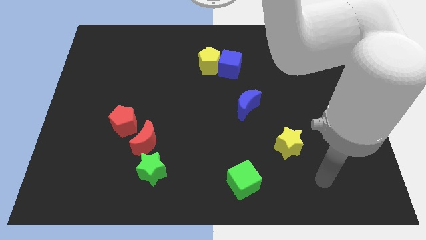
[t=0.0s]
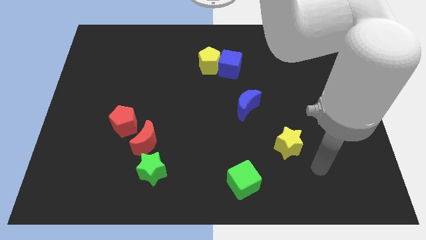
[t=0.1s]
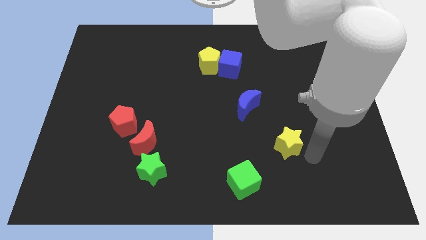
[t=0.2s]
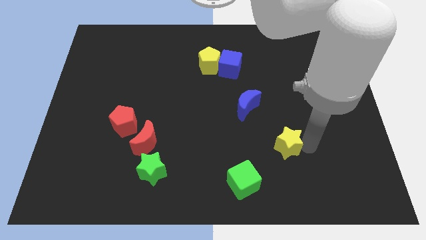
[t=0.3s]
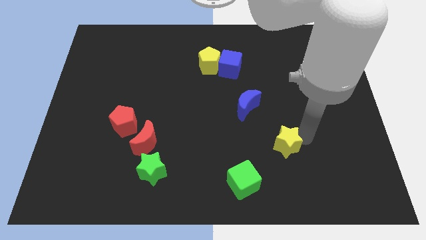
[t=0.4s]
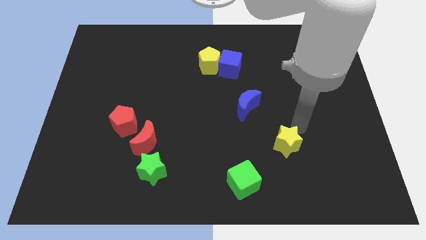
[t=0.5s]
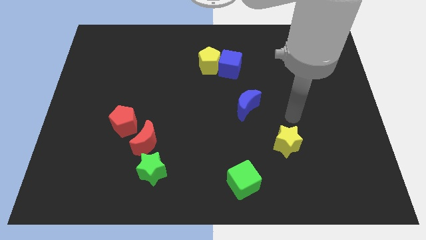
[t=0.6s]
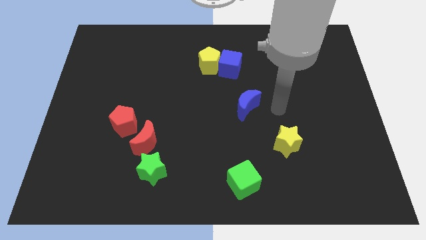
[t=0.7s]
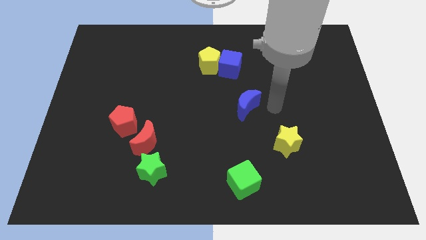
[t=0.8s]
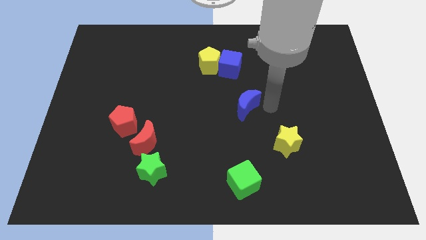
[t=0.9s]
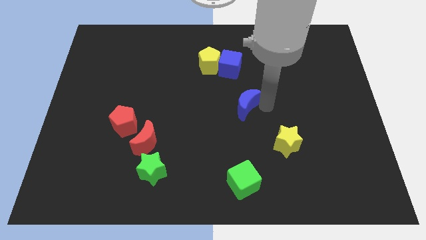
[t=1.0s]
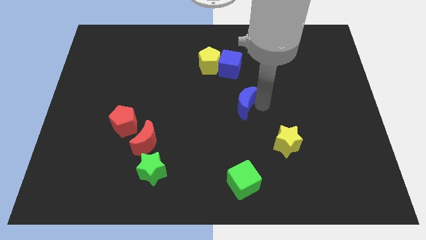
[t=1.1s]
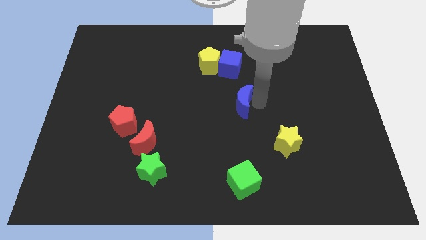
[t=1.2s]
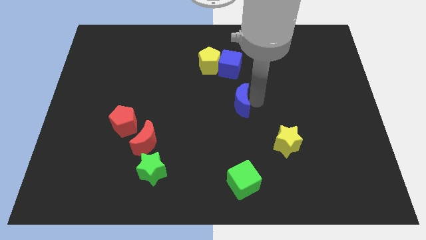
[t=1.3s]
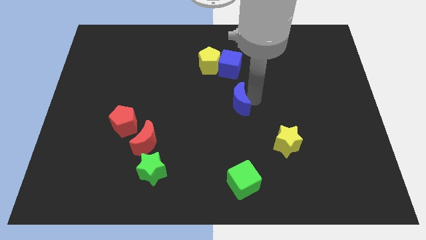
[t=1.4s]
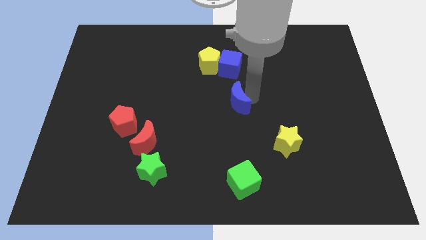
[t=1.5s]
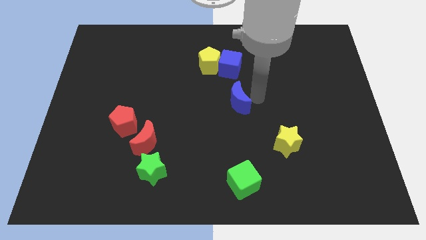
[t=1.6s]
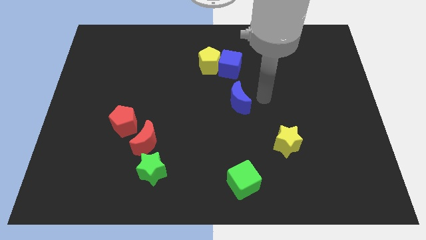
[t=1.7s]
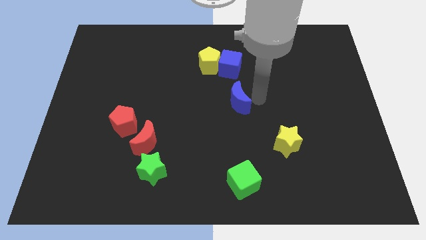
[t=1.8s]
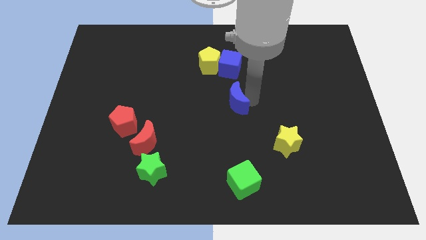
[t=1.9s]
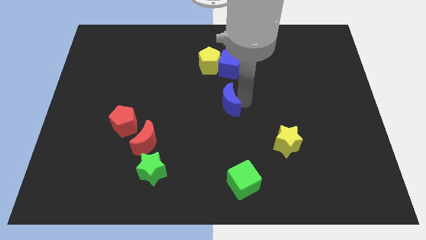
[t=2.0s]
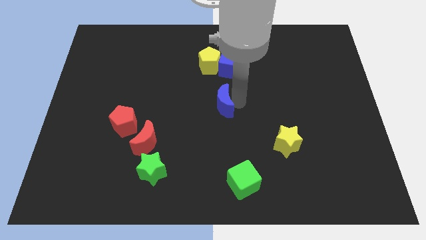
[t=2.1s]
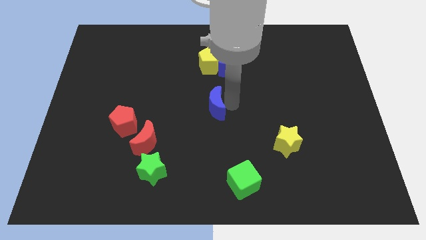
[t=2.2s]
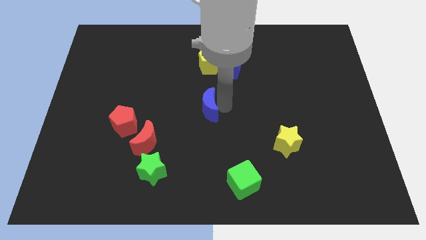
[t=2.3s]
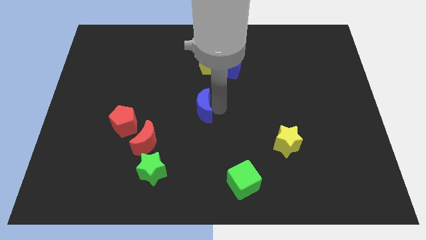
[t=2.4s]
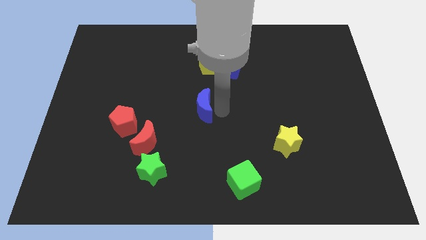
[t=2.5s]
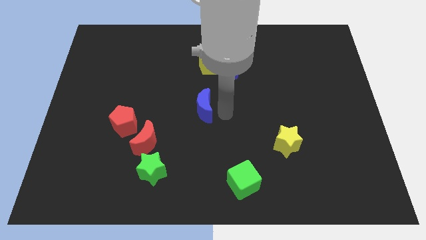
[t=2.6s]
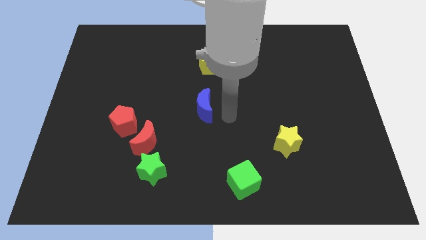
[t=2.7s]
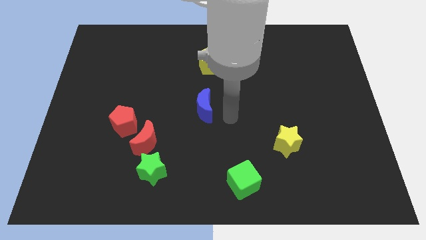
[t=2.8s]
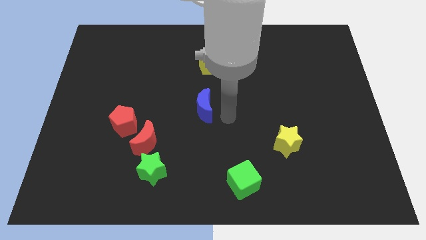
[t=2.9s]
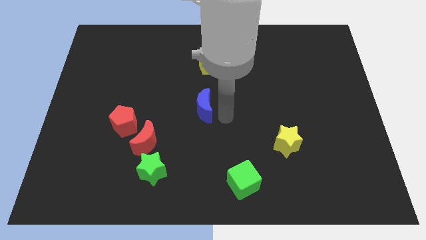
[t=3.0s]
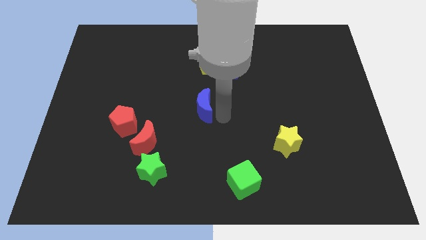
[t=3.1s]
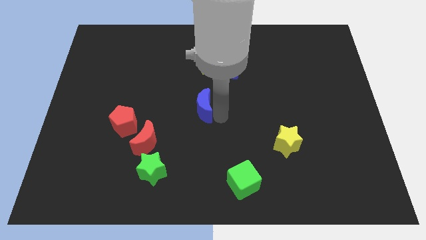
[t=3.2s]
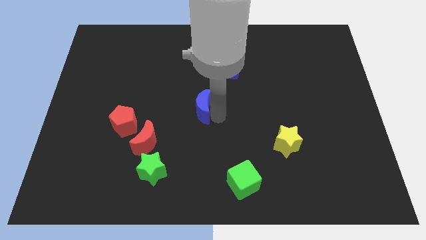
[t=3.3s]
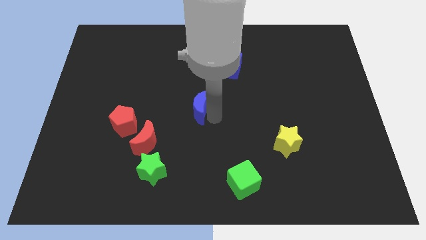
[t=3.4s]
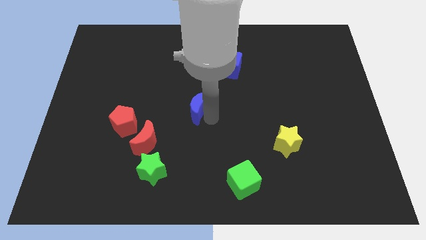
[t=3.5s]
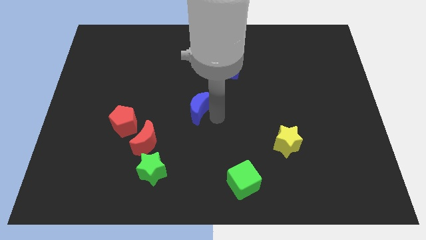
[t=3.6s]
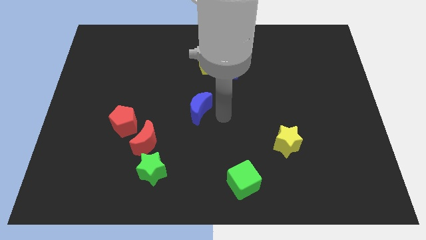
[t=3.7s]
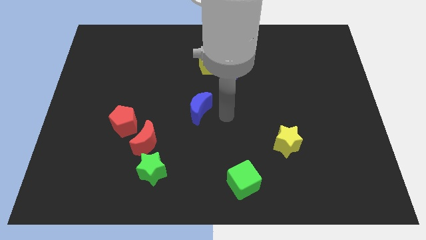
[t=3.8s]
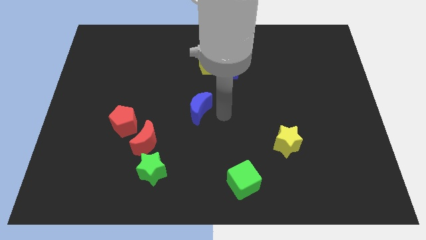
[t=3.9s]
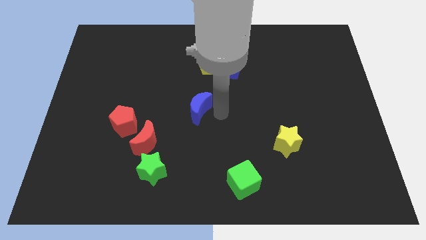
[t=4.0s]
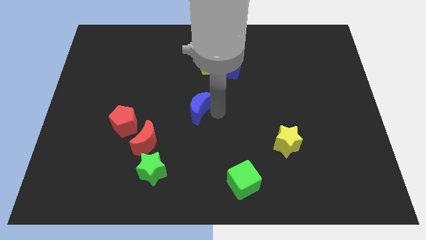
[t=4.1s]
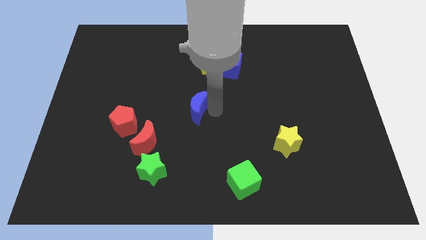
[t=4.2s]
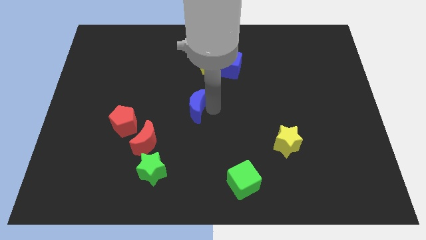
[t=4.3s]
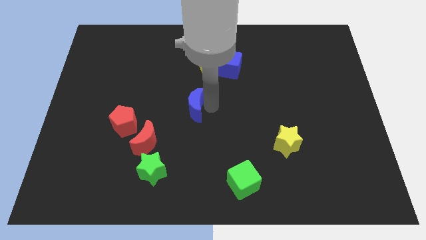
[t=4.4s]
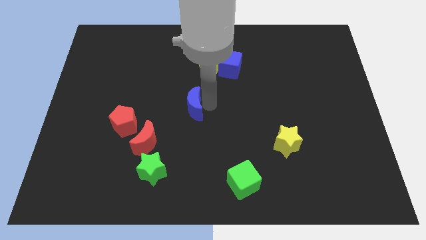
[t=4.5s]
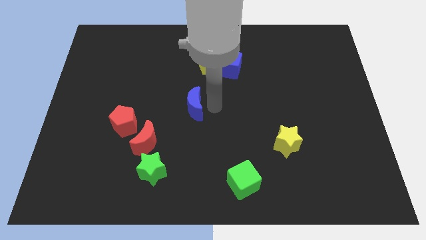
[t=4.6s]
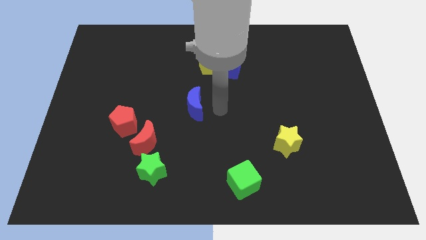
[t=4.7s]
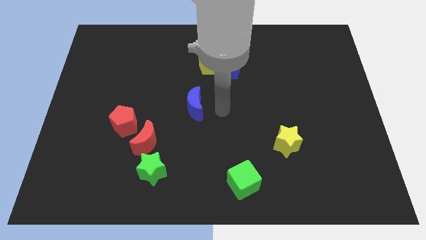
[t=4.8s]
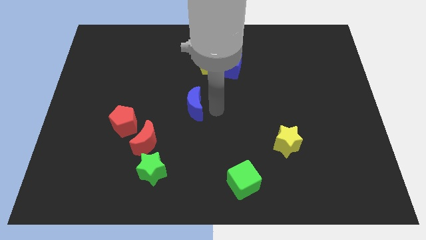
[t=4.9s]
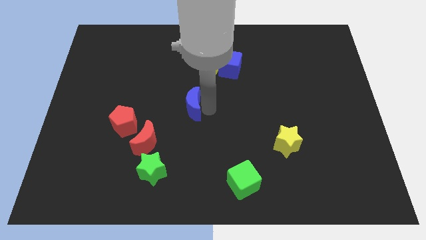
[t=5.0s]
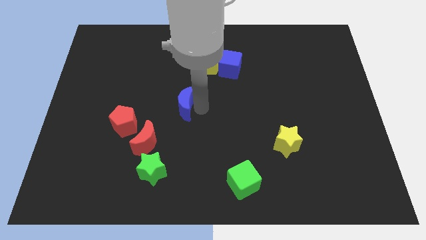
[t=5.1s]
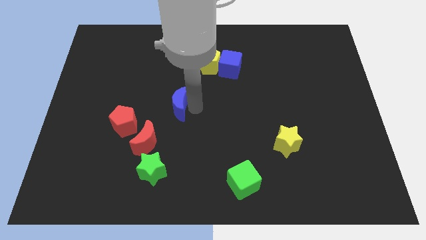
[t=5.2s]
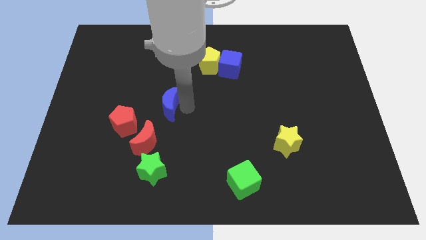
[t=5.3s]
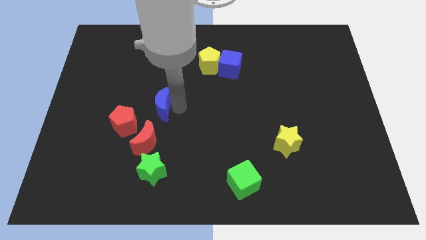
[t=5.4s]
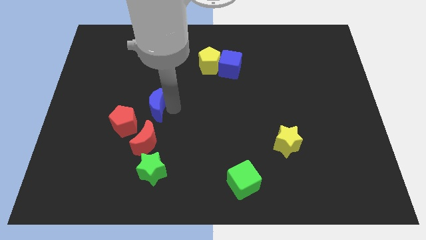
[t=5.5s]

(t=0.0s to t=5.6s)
push the blue moon left

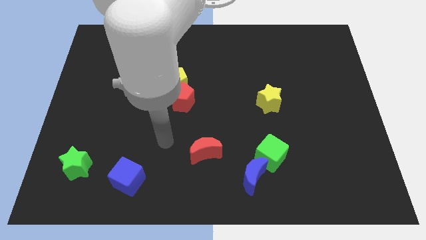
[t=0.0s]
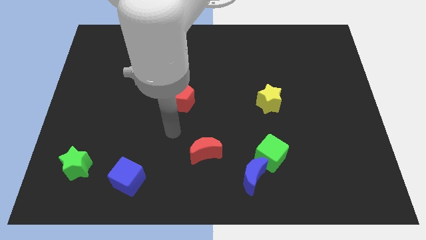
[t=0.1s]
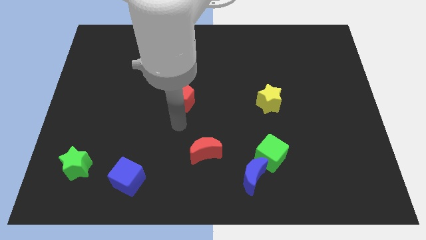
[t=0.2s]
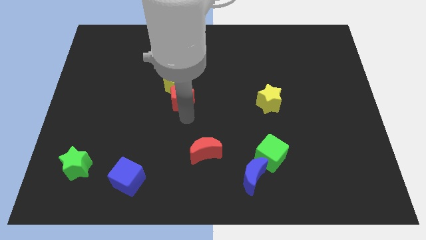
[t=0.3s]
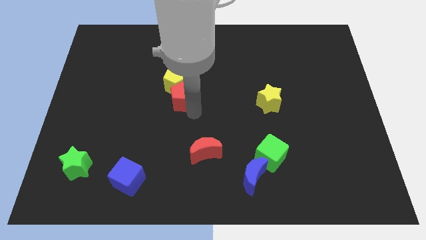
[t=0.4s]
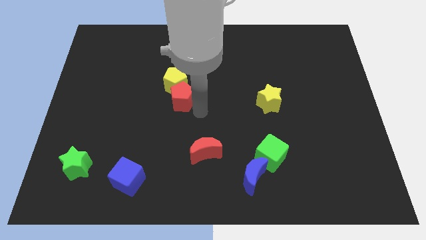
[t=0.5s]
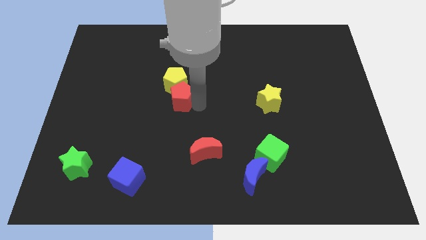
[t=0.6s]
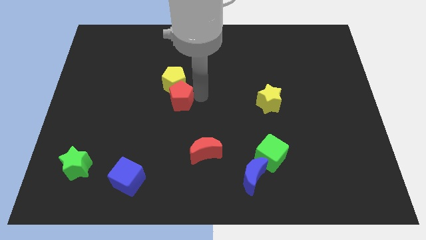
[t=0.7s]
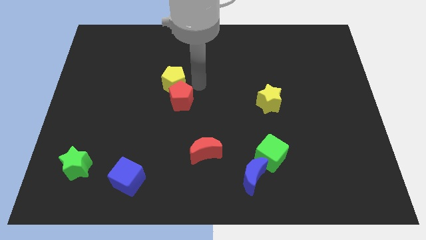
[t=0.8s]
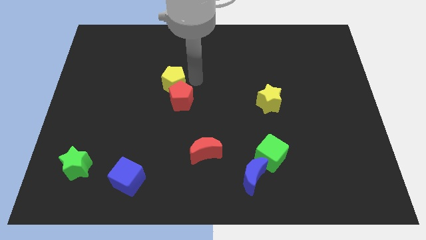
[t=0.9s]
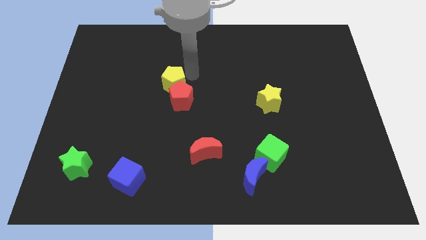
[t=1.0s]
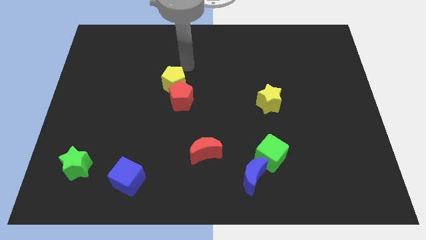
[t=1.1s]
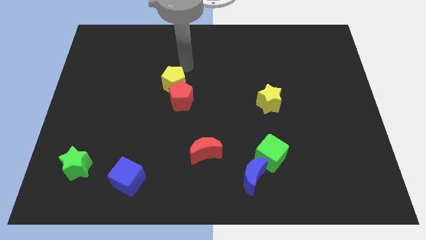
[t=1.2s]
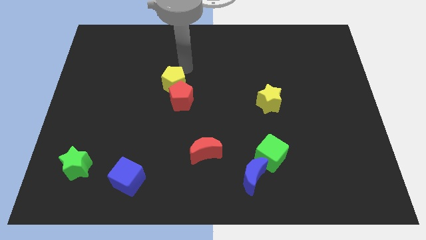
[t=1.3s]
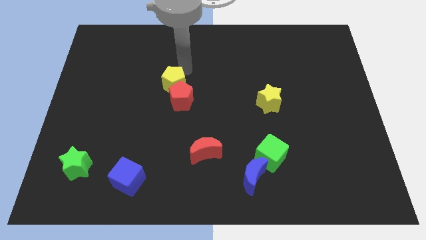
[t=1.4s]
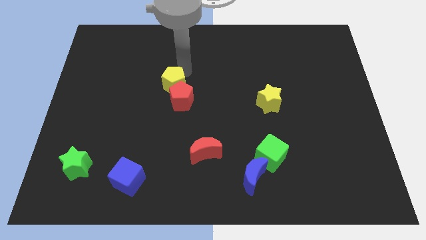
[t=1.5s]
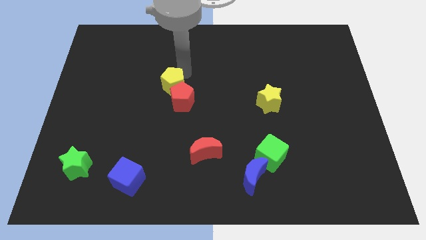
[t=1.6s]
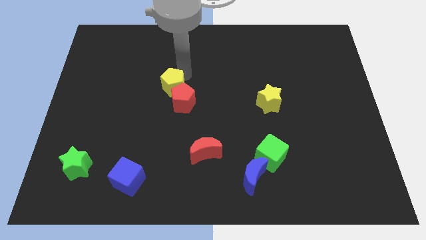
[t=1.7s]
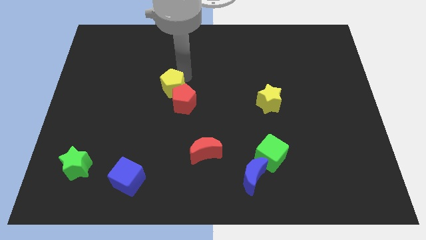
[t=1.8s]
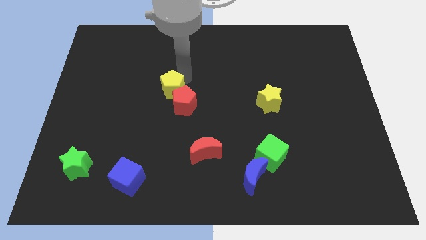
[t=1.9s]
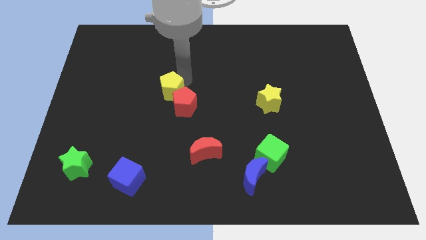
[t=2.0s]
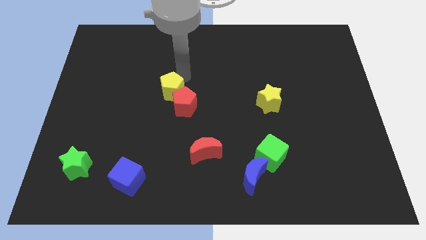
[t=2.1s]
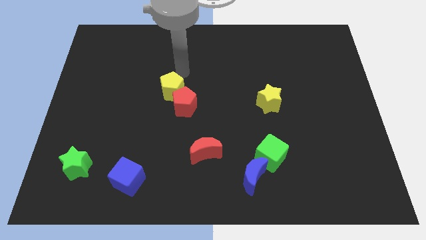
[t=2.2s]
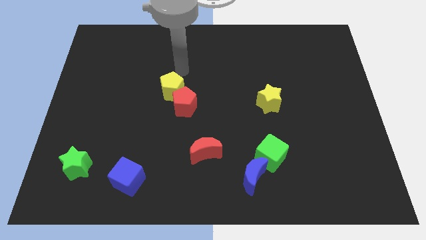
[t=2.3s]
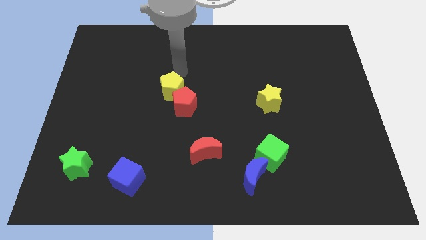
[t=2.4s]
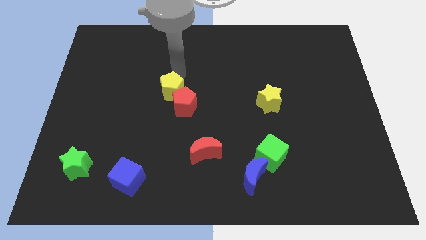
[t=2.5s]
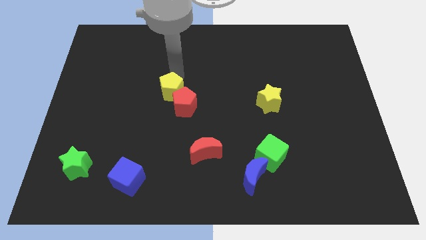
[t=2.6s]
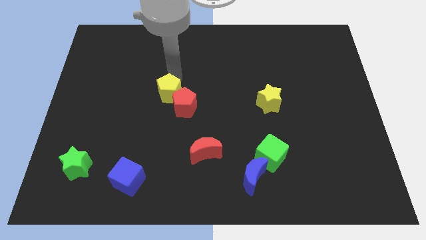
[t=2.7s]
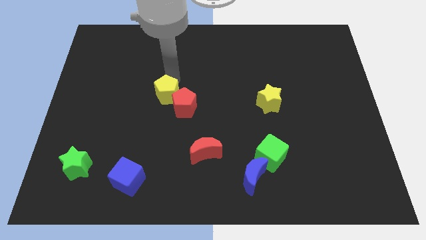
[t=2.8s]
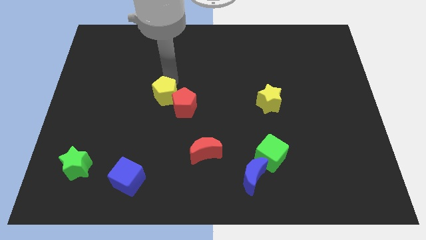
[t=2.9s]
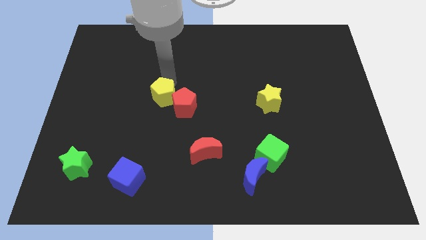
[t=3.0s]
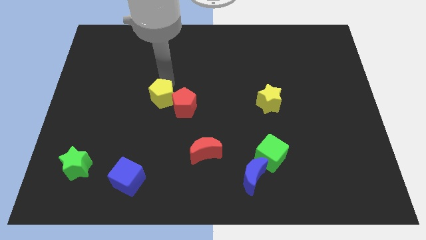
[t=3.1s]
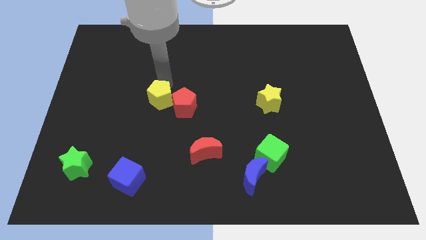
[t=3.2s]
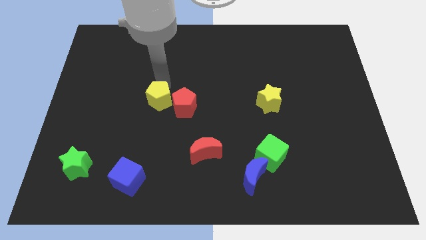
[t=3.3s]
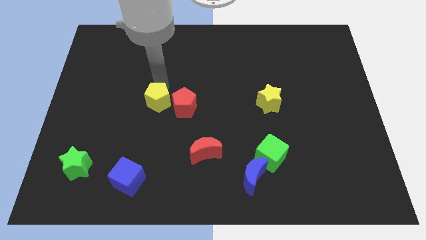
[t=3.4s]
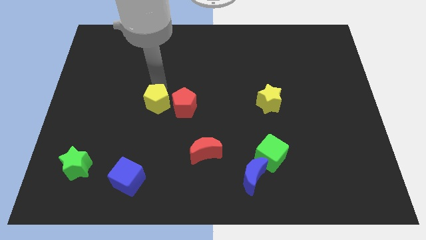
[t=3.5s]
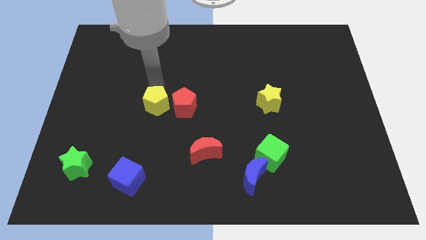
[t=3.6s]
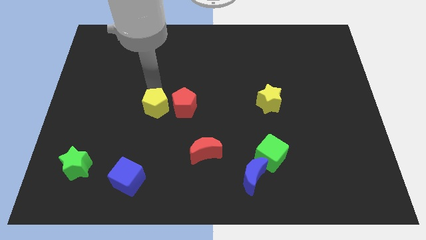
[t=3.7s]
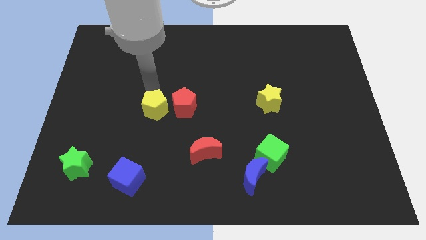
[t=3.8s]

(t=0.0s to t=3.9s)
slightly push the yellow pentagon downwards
